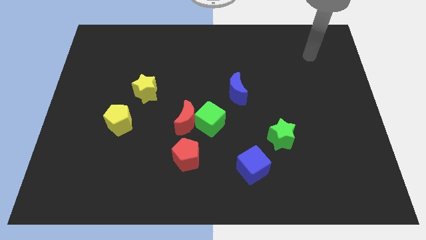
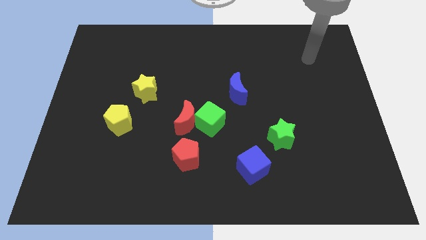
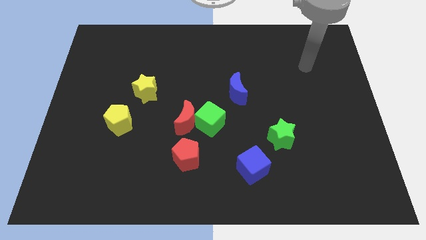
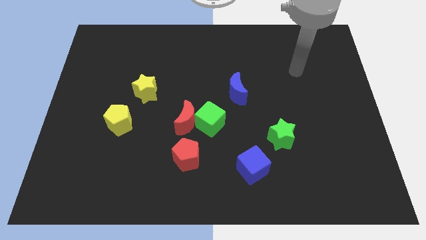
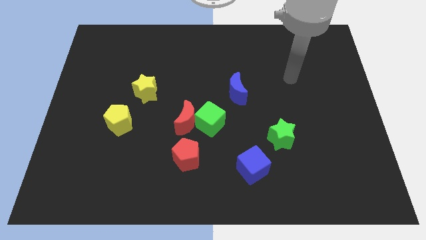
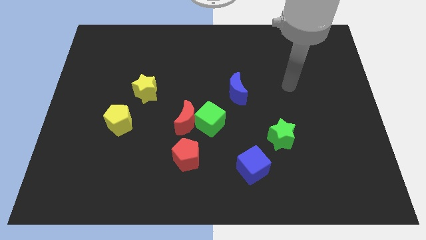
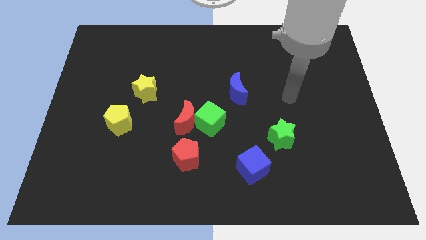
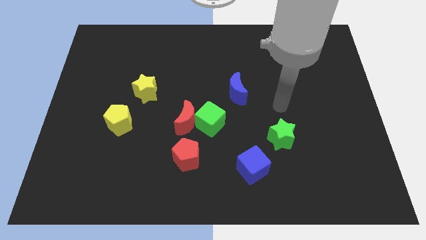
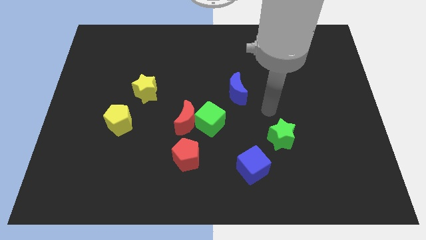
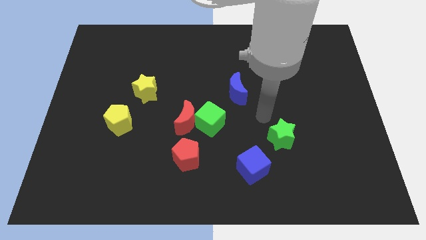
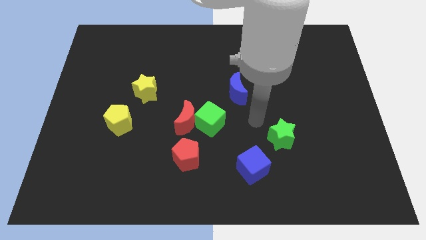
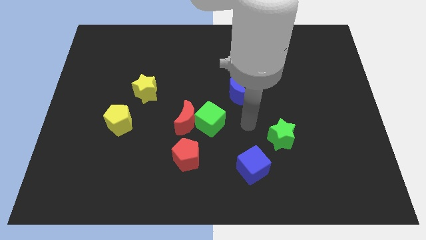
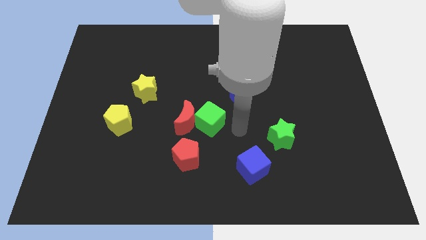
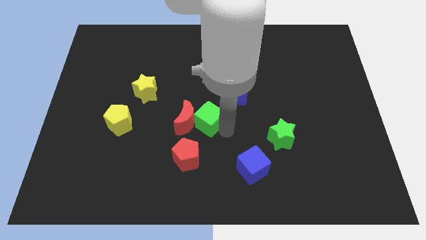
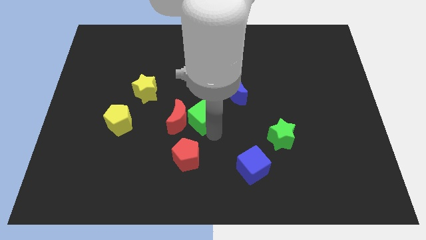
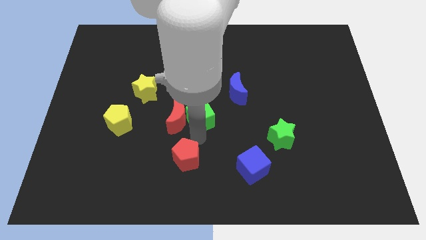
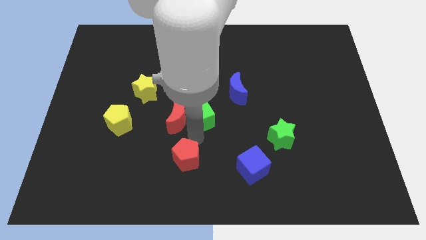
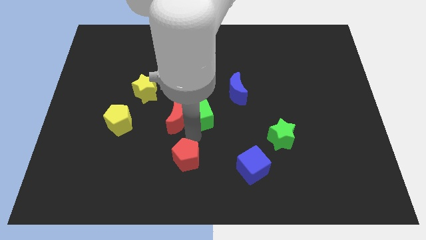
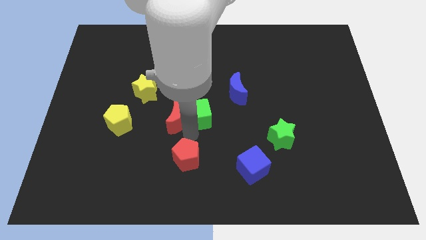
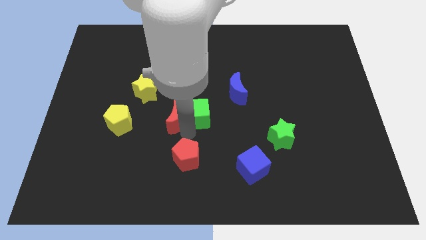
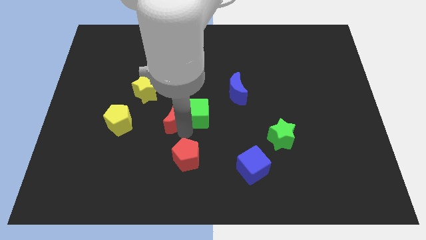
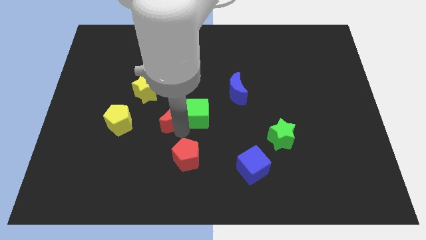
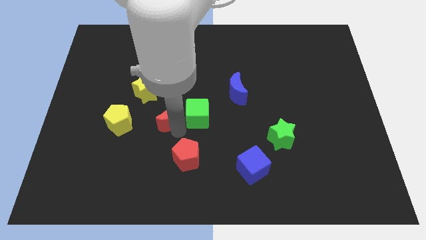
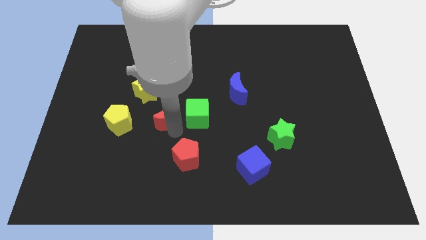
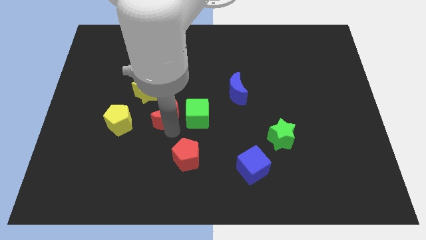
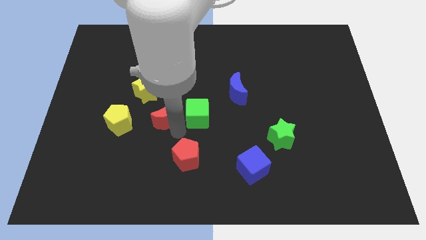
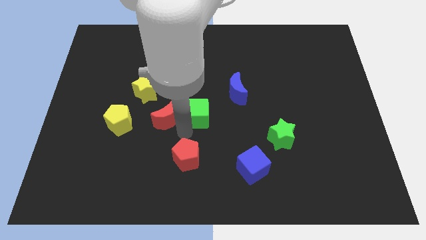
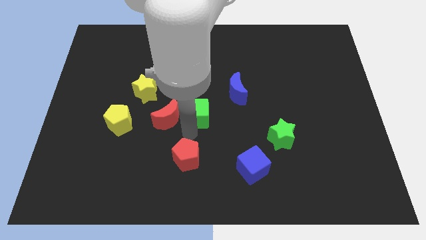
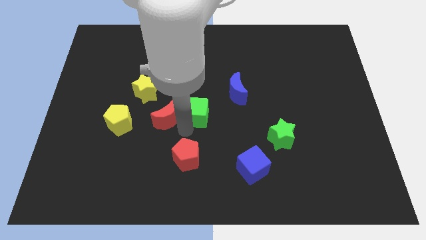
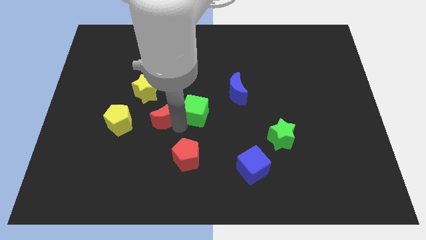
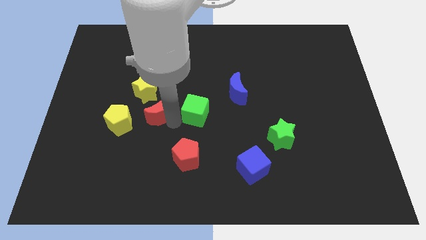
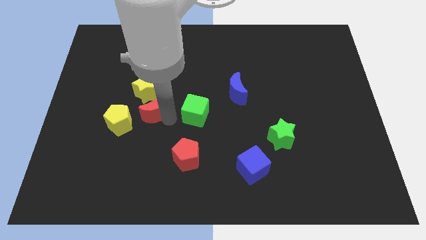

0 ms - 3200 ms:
separate the red moon from the green cube and red pentagon

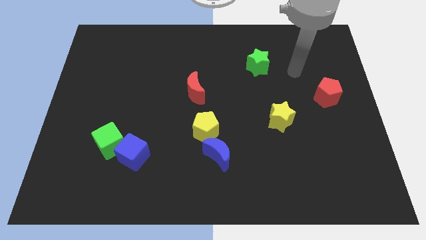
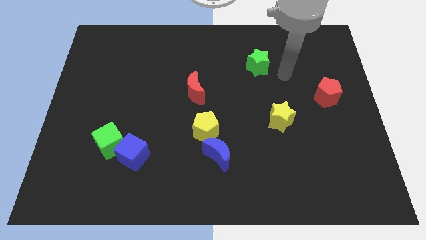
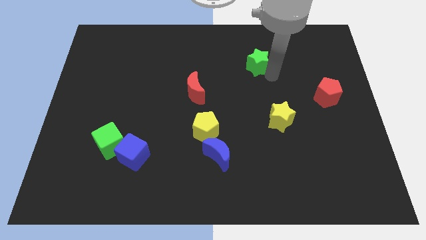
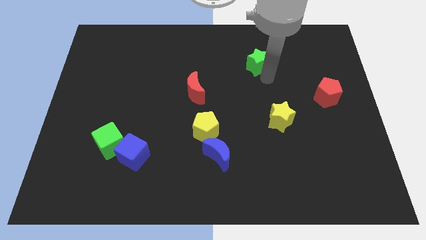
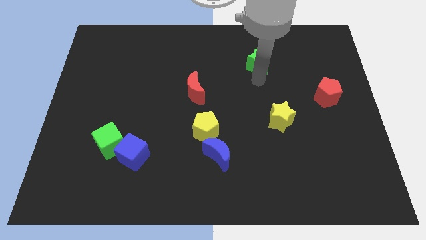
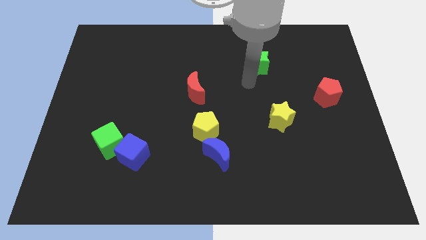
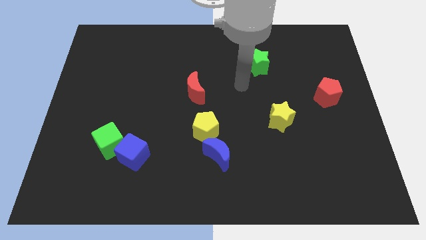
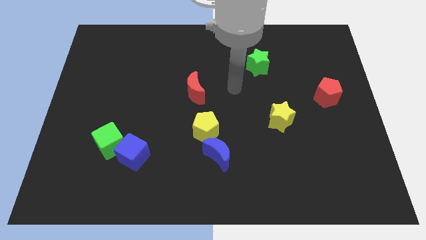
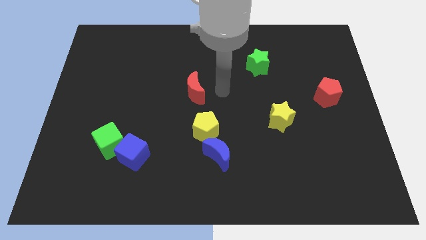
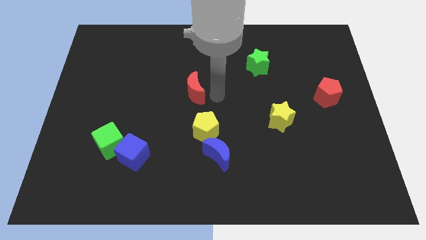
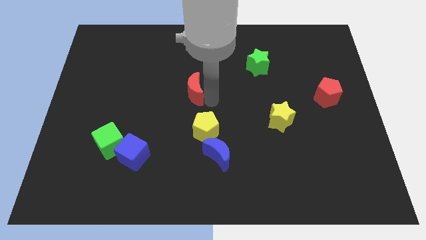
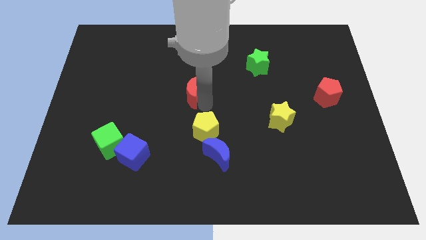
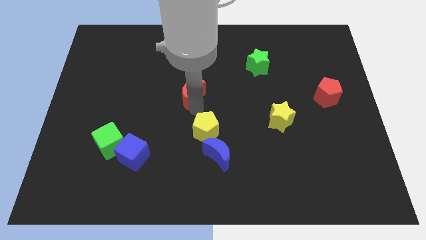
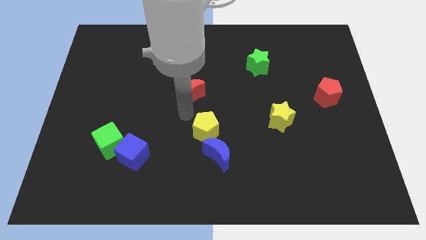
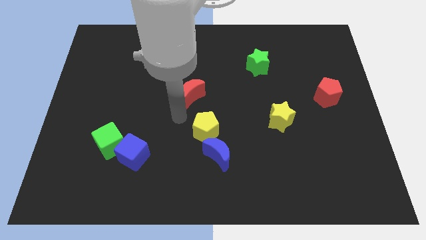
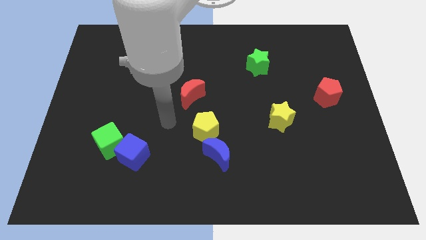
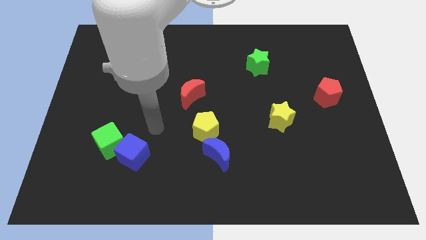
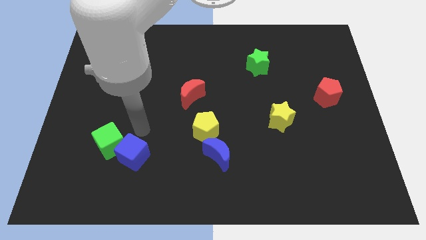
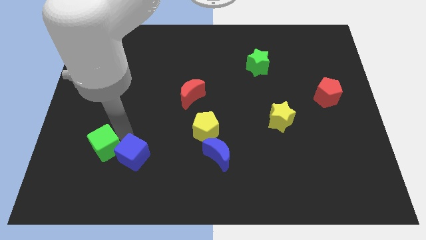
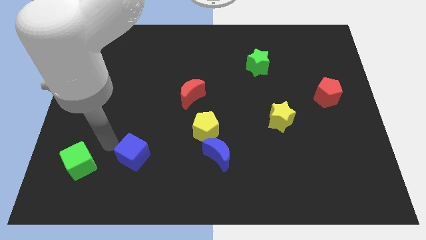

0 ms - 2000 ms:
pull the blue cube apart from the green cube

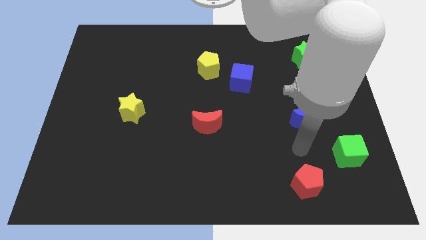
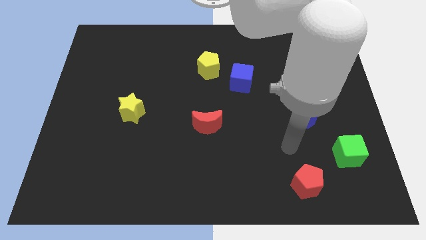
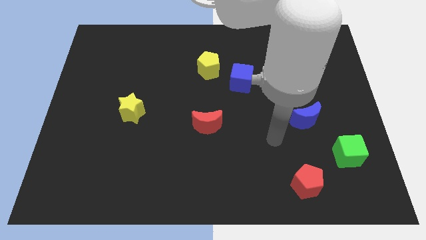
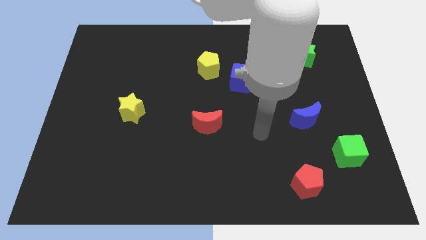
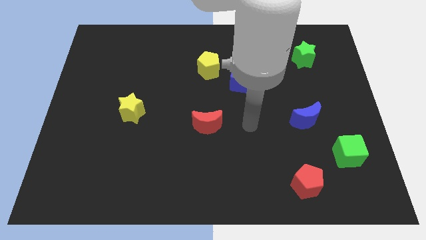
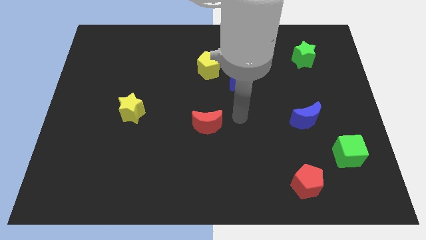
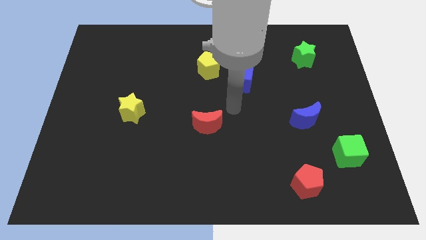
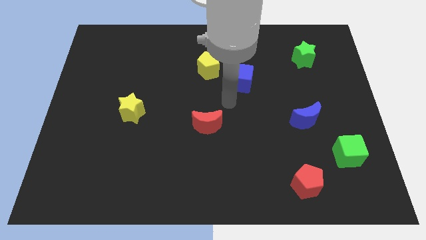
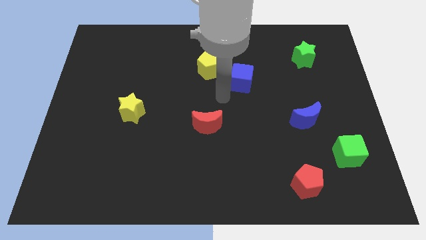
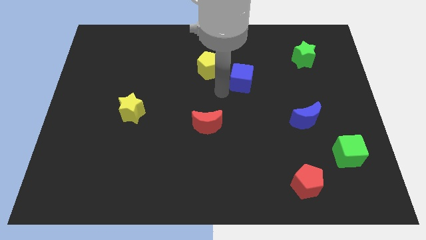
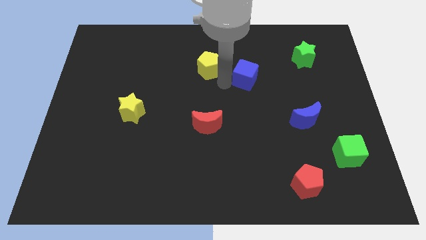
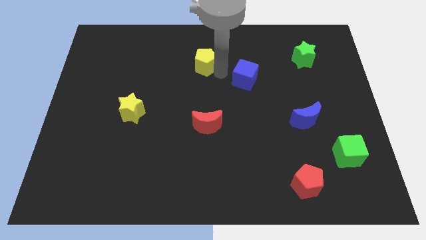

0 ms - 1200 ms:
pull the blue cube apart from the yellow pentagon

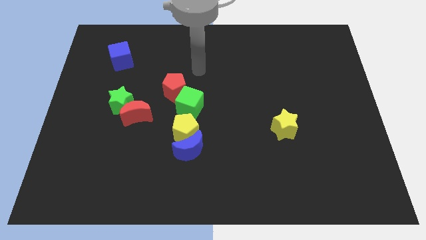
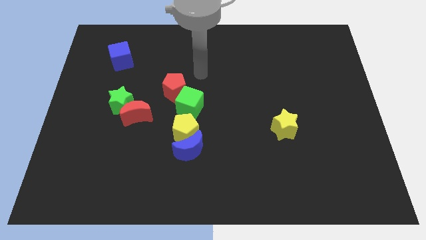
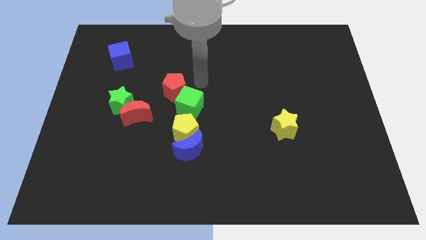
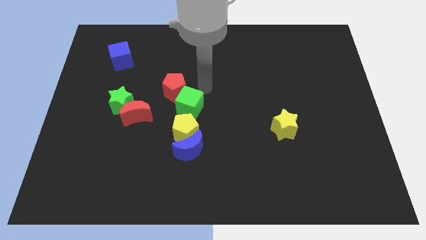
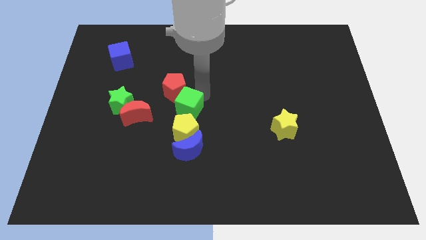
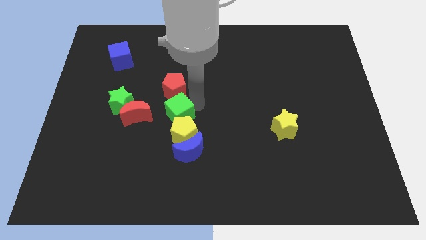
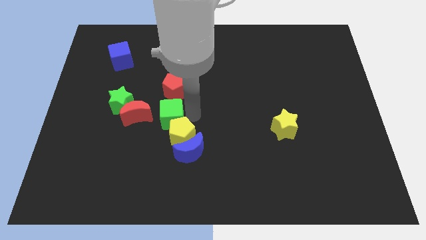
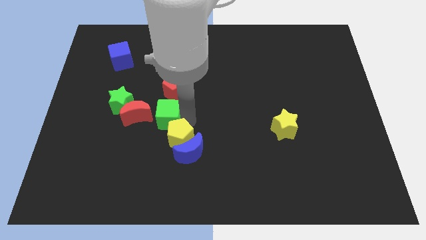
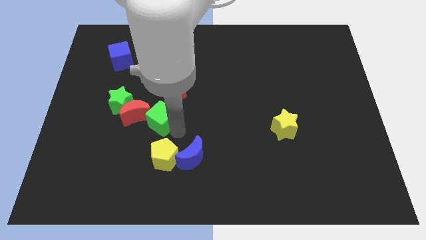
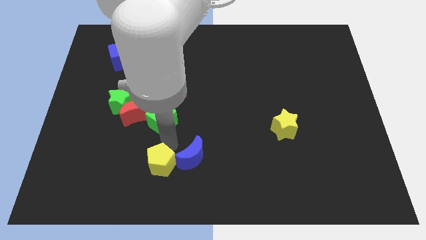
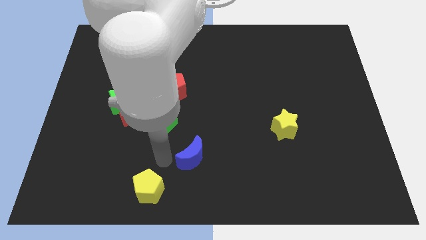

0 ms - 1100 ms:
separate the blue moon from the yellow pentagon

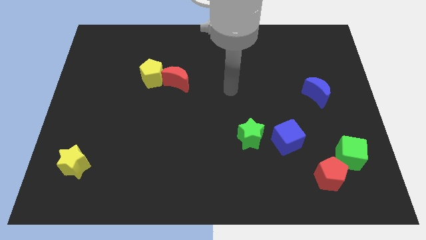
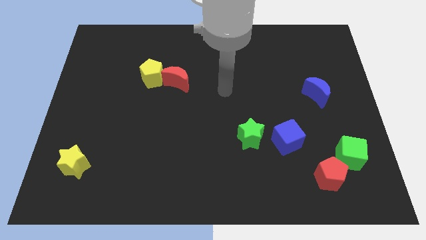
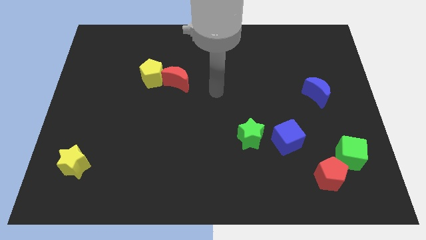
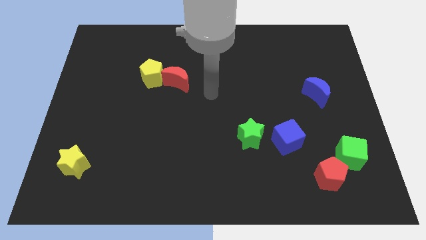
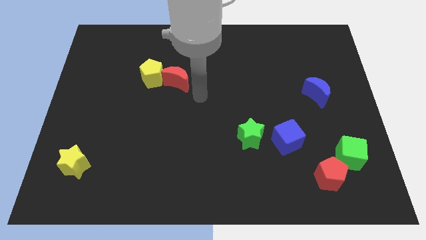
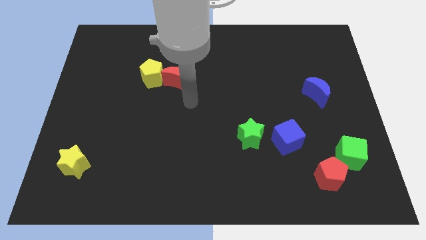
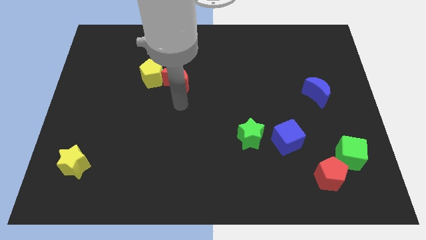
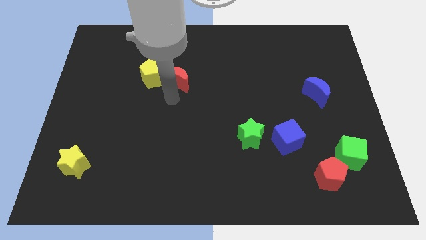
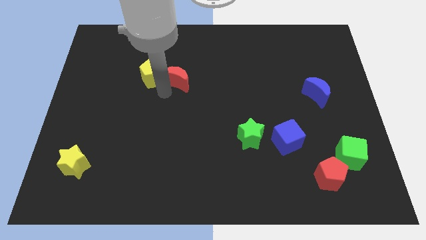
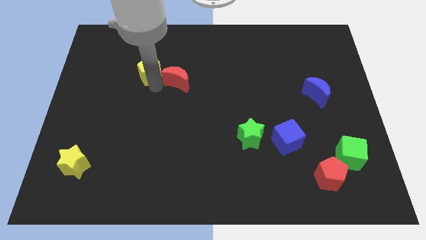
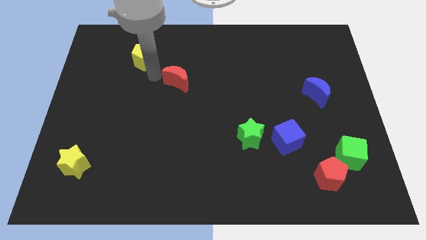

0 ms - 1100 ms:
separate the red moon from the yellow pentagon

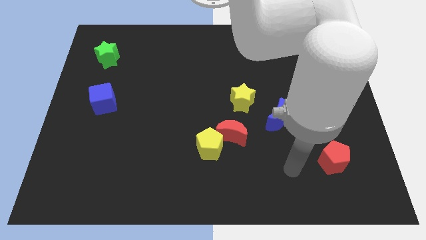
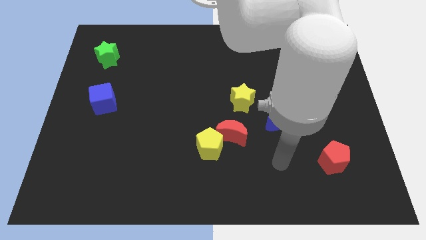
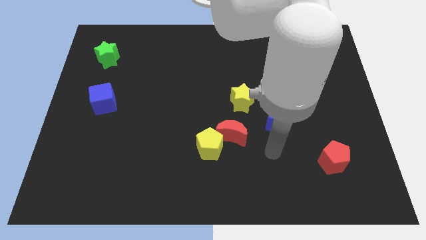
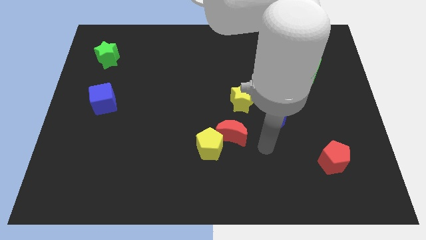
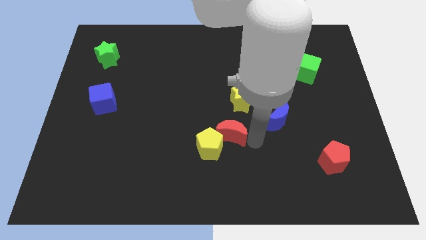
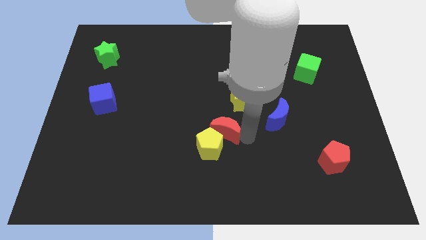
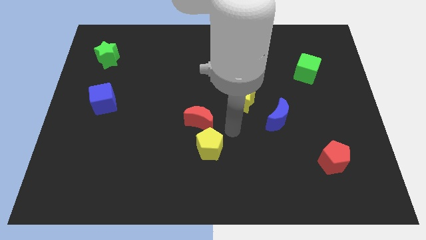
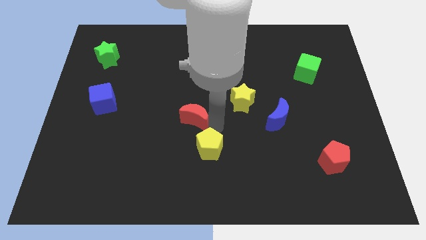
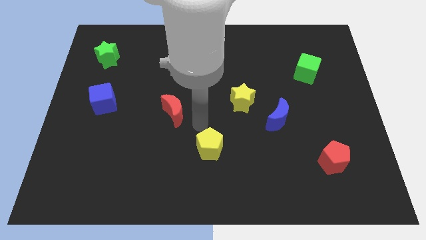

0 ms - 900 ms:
separate the yellow pentagon from the red moon
